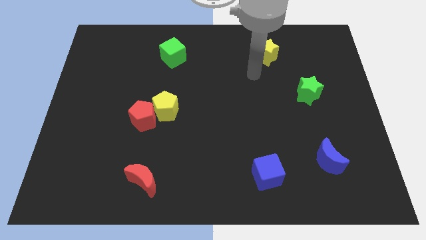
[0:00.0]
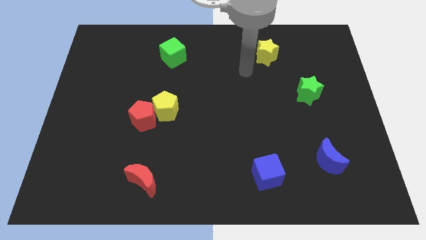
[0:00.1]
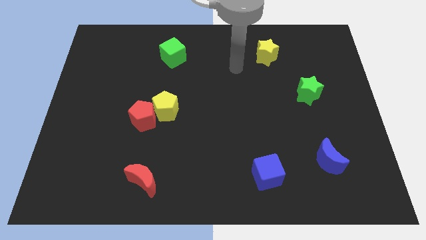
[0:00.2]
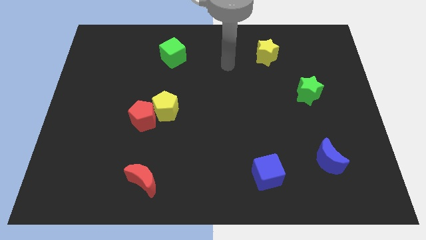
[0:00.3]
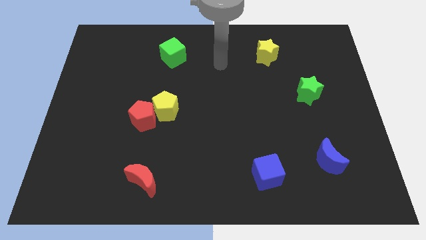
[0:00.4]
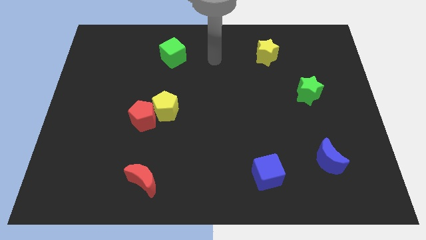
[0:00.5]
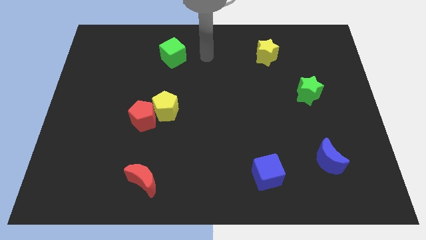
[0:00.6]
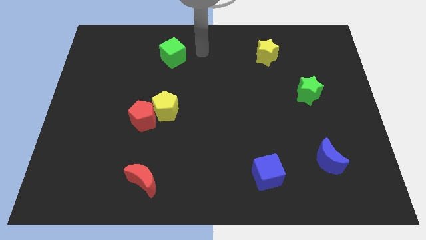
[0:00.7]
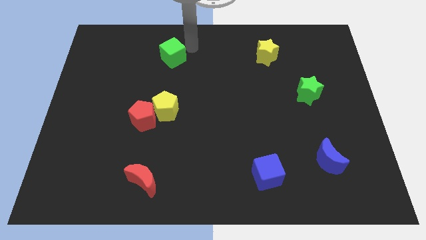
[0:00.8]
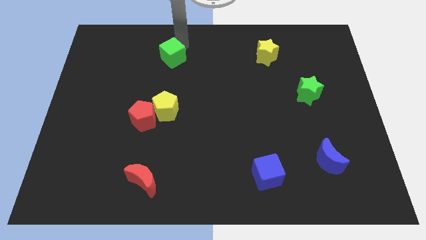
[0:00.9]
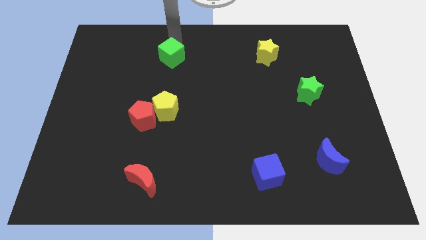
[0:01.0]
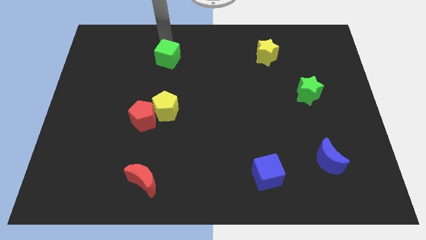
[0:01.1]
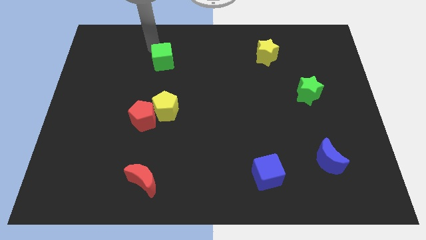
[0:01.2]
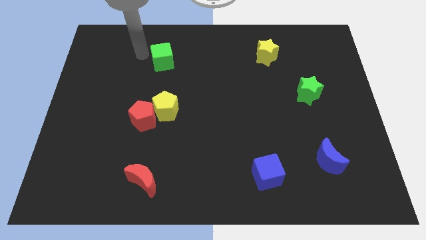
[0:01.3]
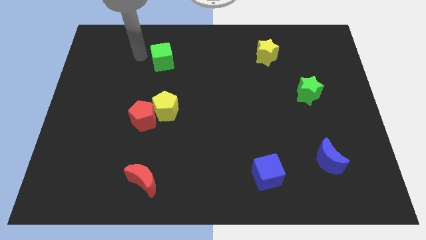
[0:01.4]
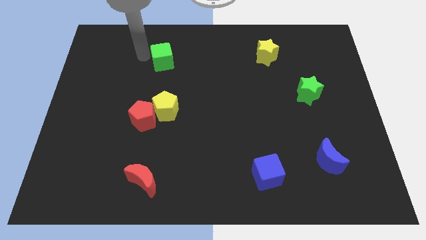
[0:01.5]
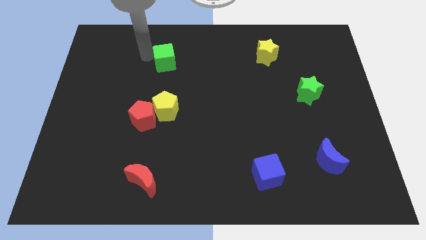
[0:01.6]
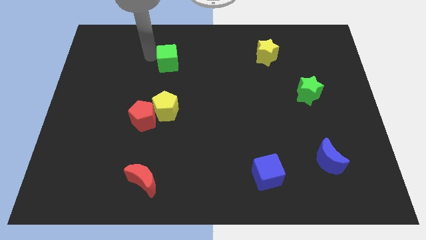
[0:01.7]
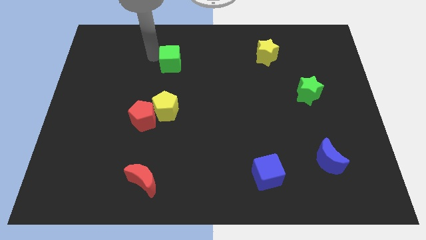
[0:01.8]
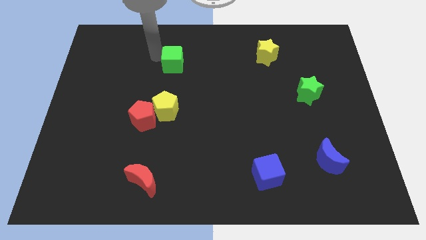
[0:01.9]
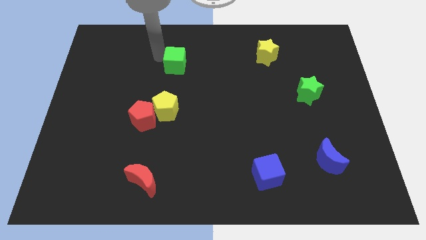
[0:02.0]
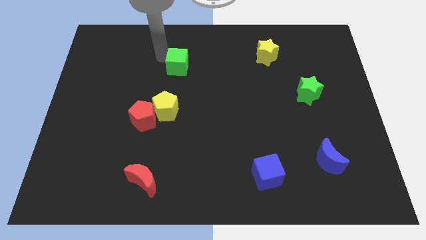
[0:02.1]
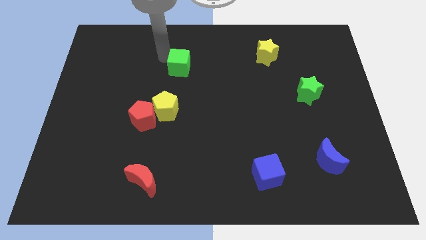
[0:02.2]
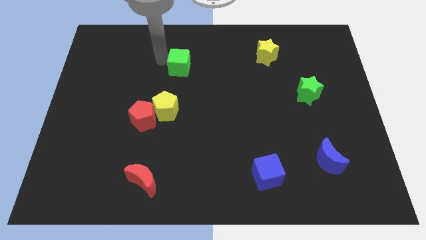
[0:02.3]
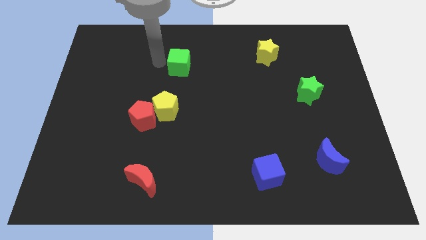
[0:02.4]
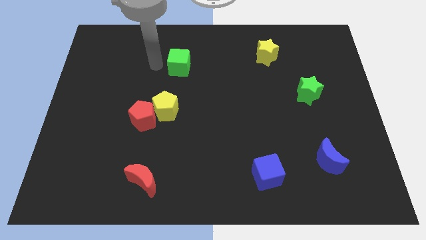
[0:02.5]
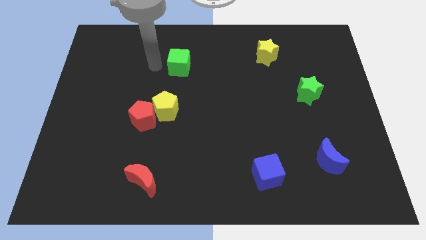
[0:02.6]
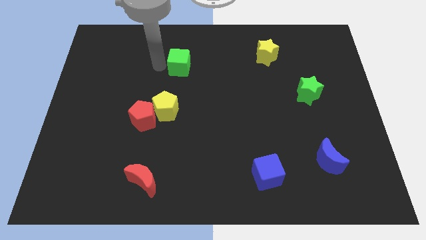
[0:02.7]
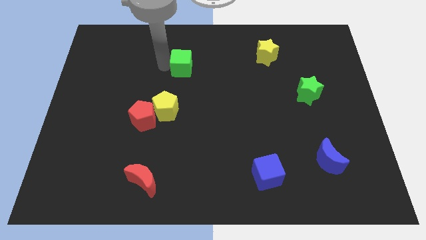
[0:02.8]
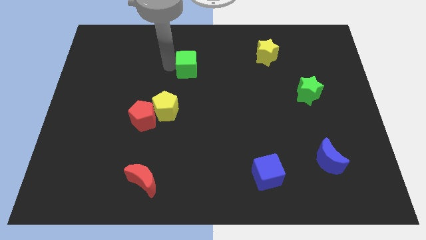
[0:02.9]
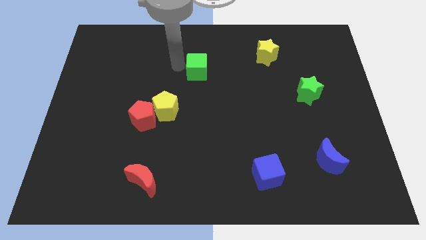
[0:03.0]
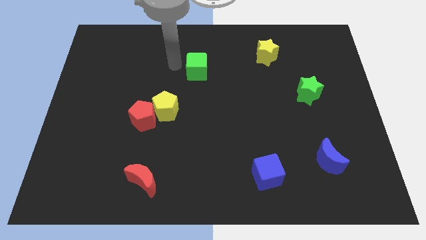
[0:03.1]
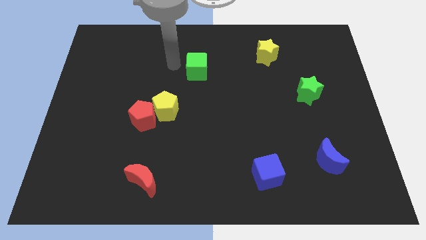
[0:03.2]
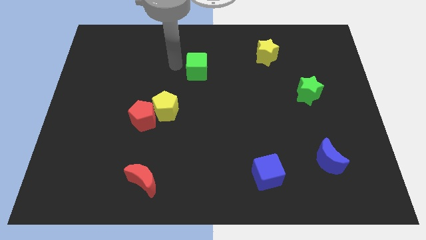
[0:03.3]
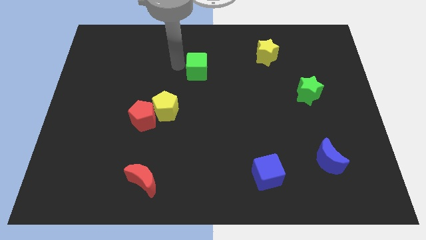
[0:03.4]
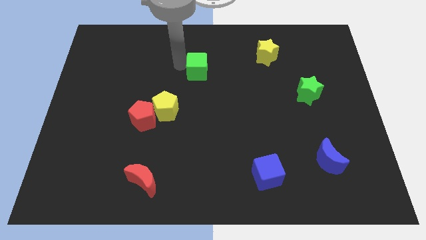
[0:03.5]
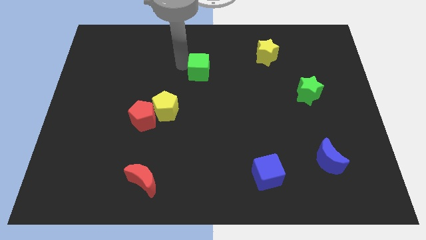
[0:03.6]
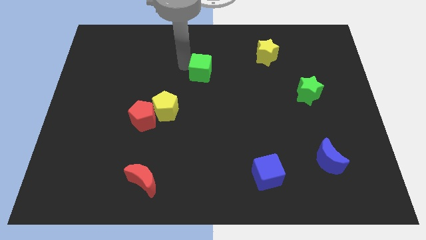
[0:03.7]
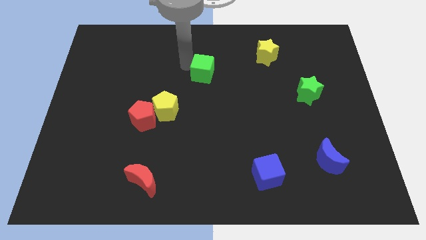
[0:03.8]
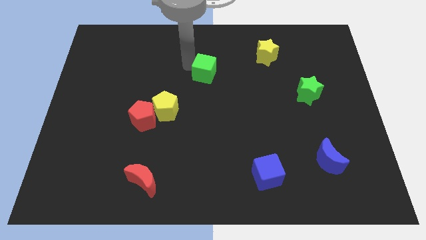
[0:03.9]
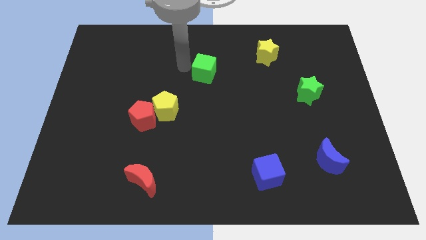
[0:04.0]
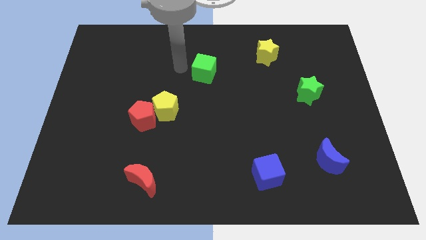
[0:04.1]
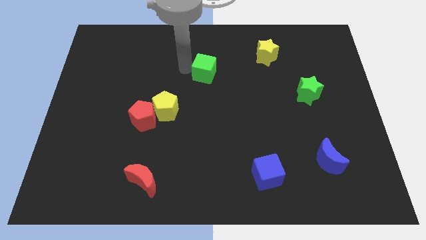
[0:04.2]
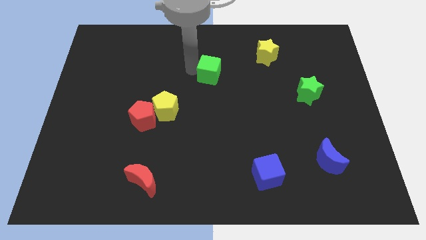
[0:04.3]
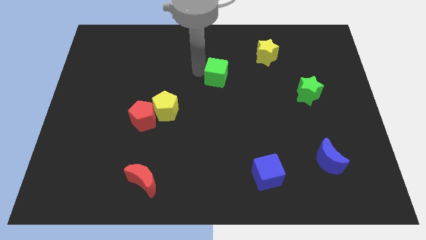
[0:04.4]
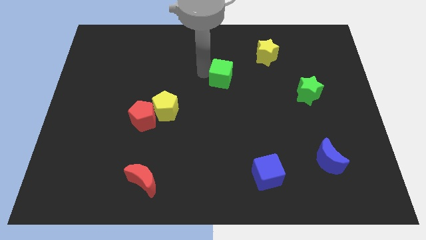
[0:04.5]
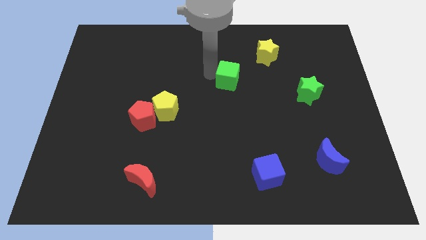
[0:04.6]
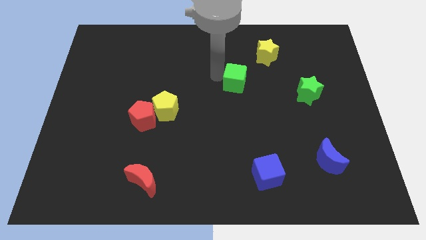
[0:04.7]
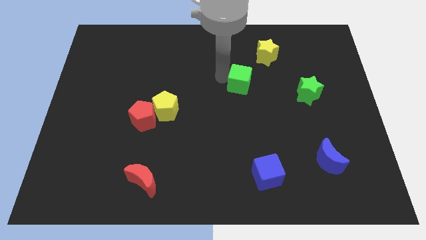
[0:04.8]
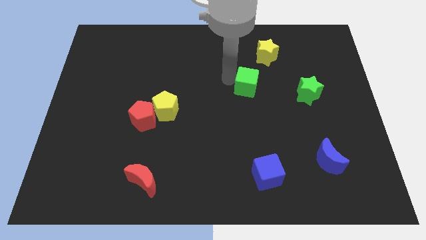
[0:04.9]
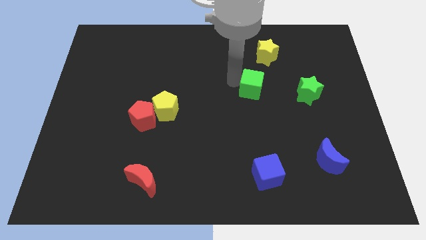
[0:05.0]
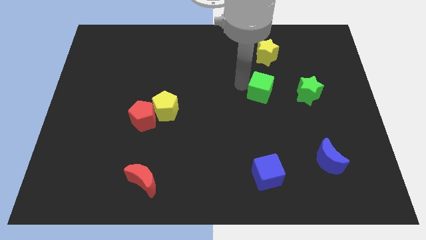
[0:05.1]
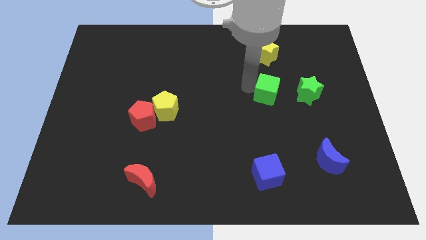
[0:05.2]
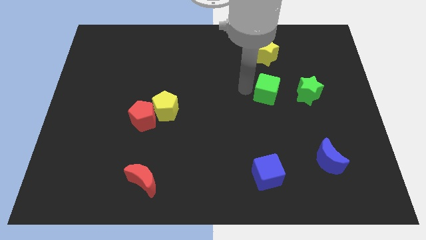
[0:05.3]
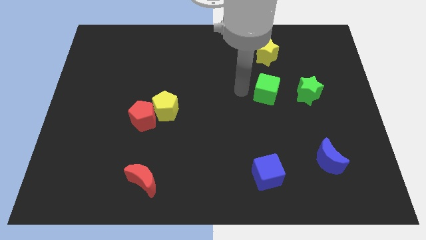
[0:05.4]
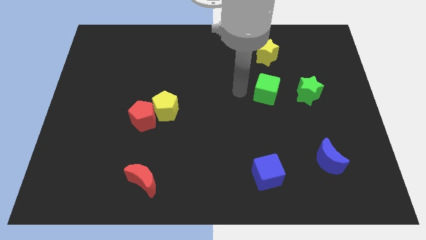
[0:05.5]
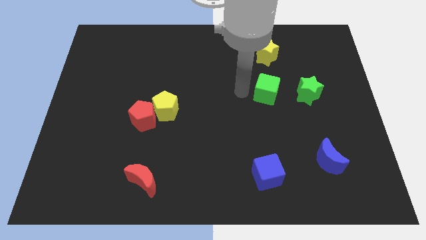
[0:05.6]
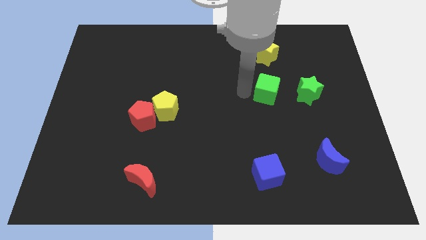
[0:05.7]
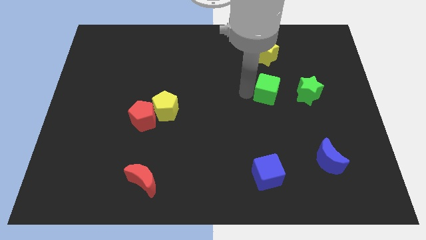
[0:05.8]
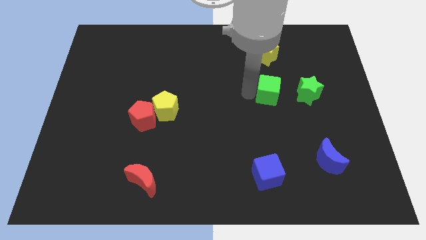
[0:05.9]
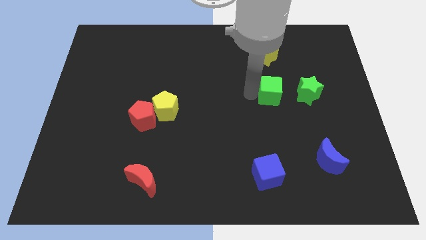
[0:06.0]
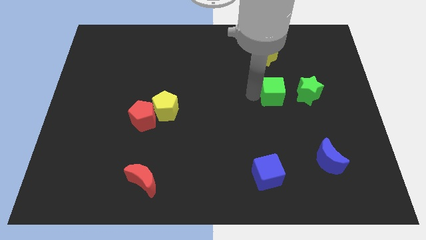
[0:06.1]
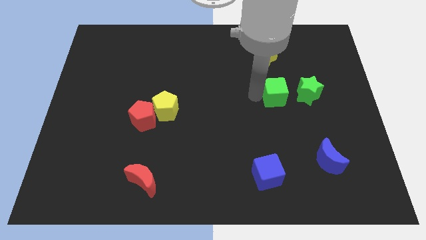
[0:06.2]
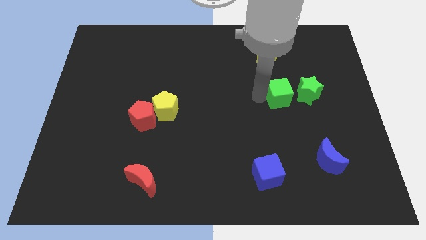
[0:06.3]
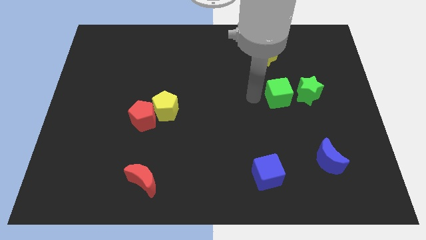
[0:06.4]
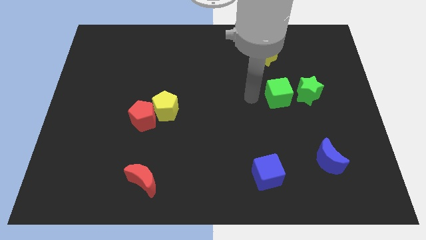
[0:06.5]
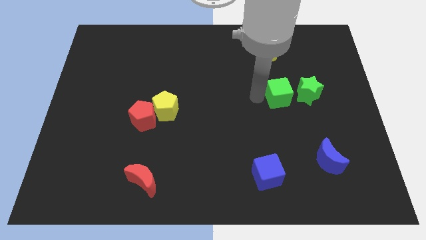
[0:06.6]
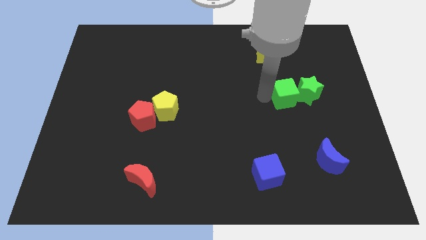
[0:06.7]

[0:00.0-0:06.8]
slide the green cube next to the green star

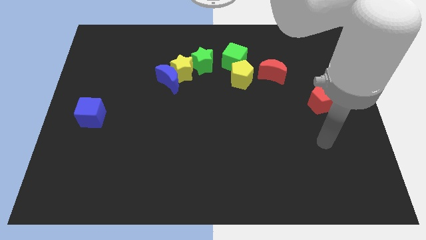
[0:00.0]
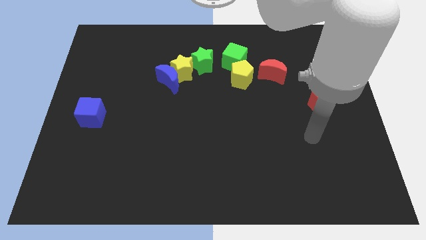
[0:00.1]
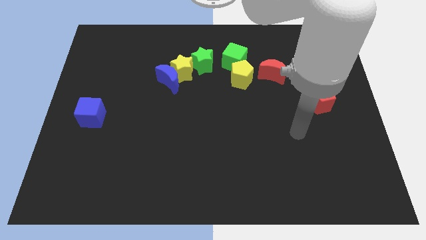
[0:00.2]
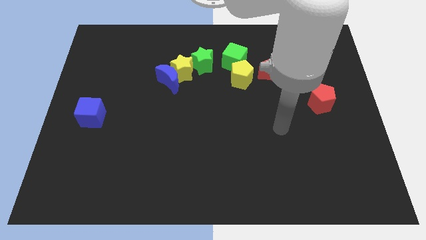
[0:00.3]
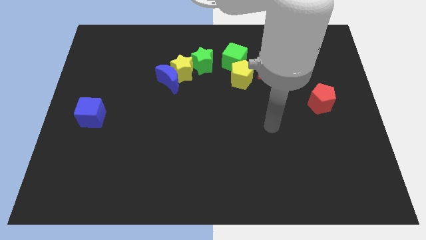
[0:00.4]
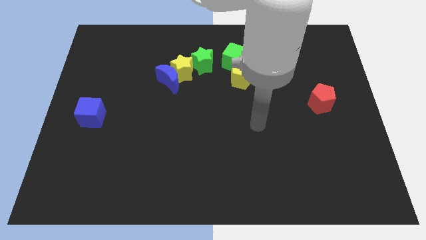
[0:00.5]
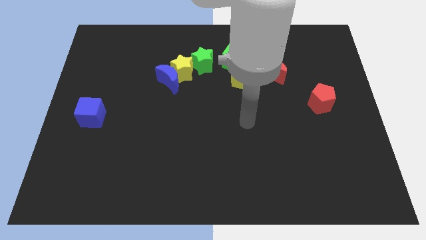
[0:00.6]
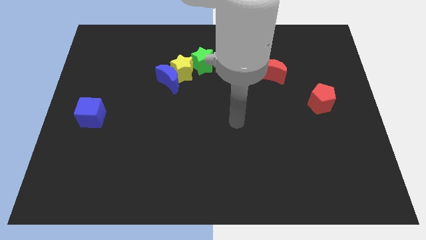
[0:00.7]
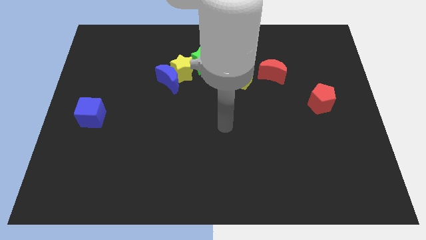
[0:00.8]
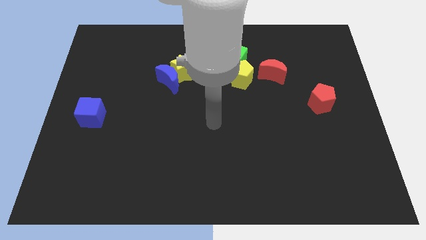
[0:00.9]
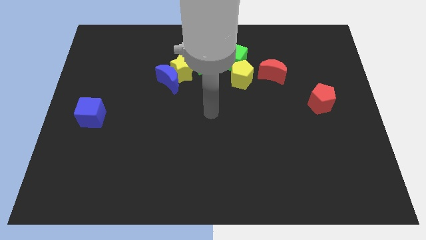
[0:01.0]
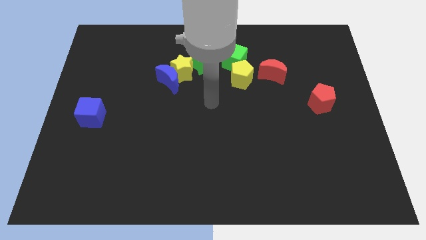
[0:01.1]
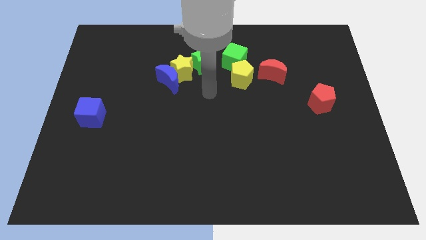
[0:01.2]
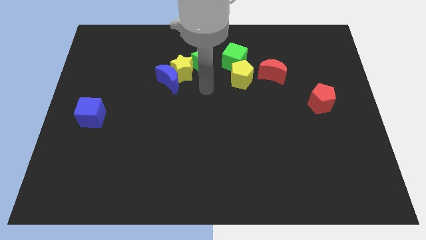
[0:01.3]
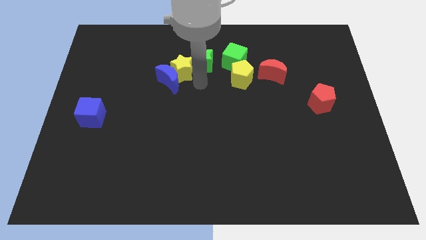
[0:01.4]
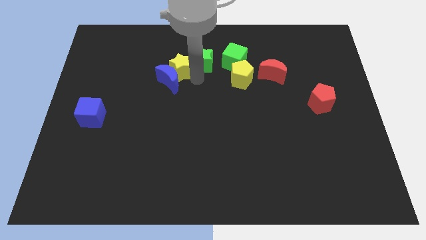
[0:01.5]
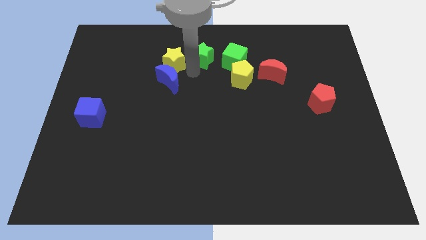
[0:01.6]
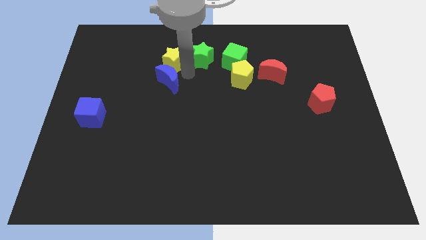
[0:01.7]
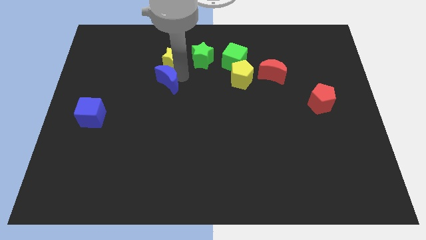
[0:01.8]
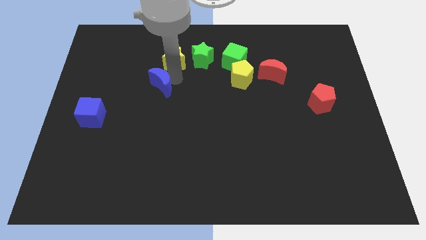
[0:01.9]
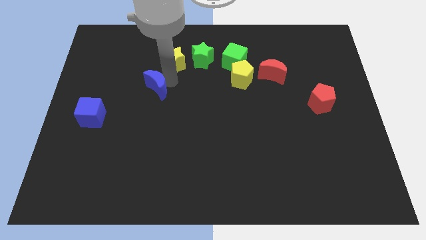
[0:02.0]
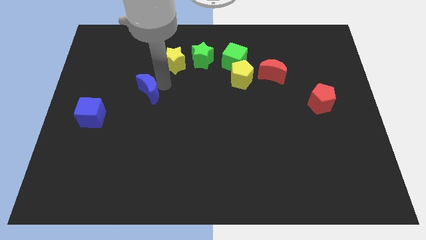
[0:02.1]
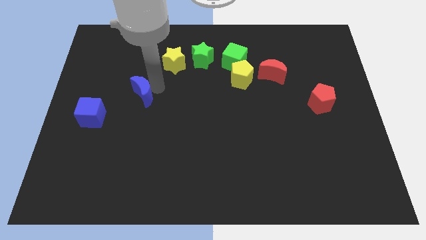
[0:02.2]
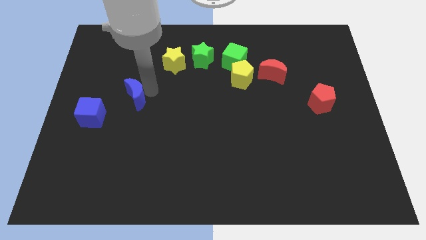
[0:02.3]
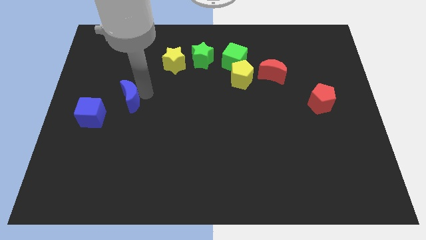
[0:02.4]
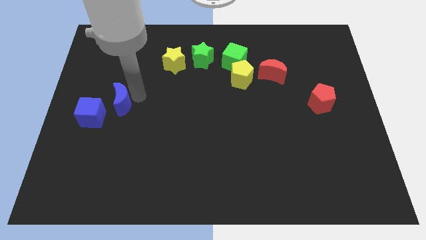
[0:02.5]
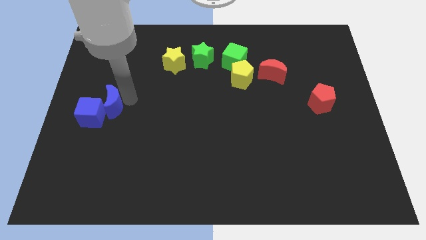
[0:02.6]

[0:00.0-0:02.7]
move the blue moon towards the blue cube
